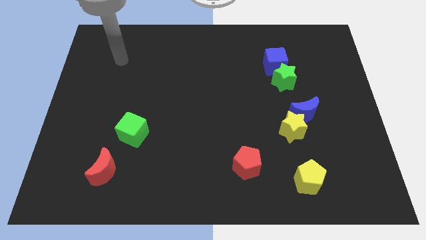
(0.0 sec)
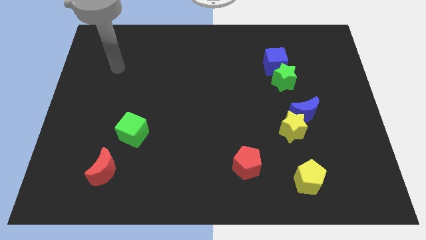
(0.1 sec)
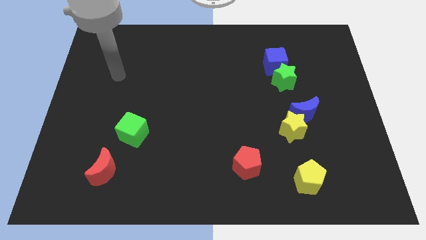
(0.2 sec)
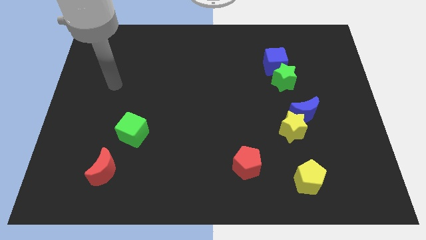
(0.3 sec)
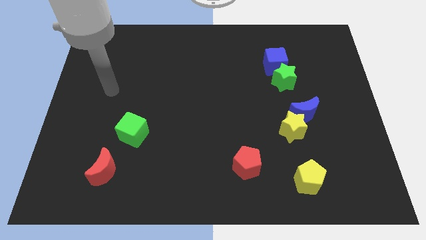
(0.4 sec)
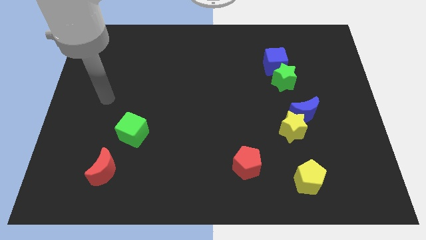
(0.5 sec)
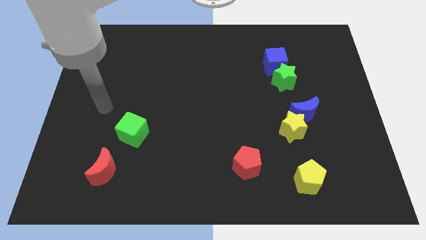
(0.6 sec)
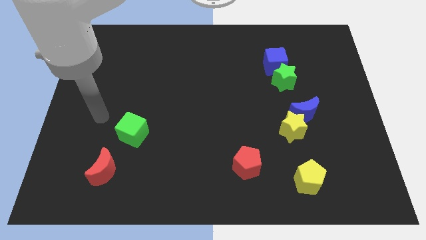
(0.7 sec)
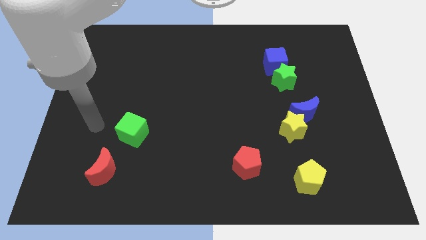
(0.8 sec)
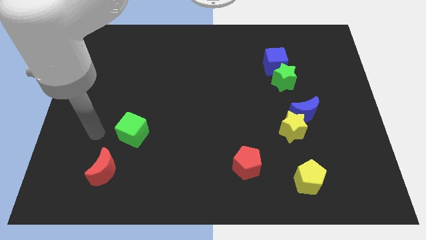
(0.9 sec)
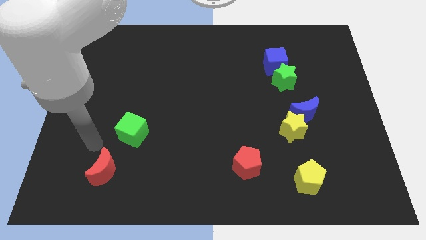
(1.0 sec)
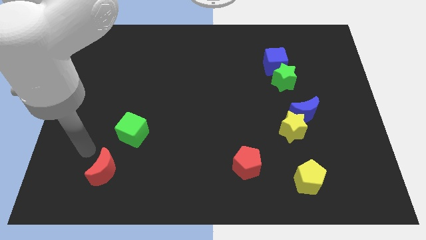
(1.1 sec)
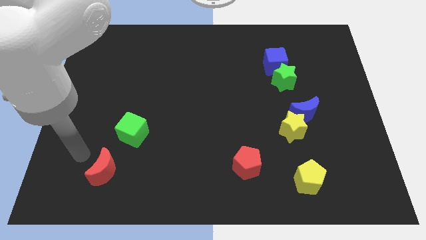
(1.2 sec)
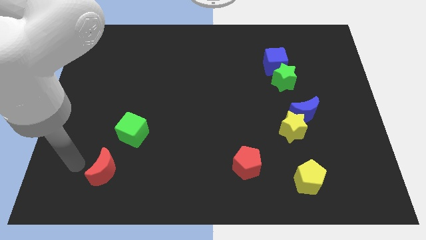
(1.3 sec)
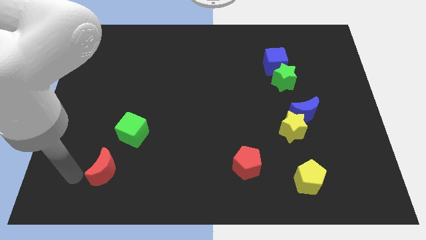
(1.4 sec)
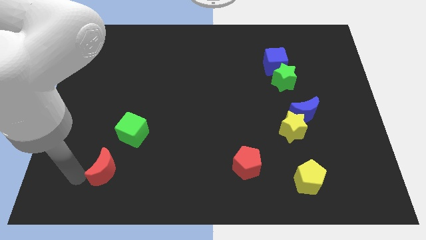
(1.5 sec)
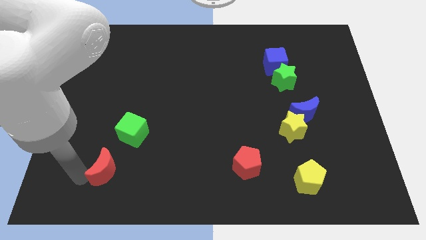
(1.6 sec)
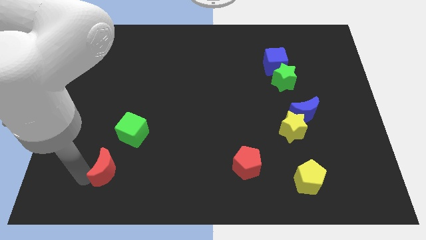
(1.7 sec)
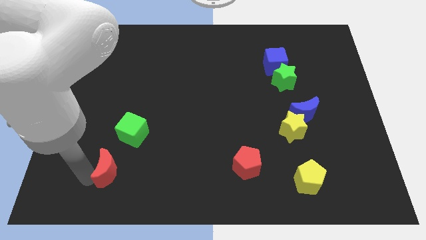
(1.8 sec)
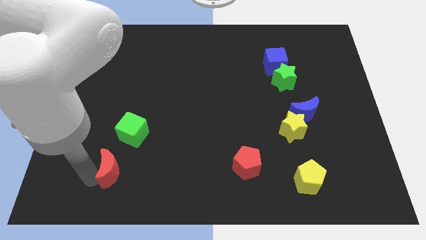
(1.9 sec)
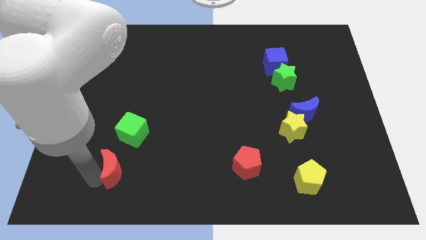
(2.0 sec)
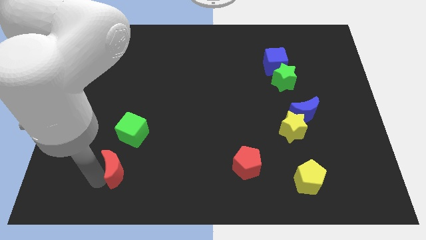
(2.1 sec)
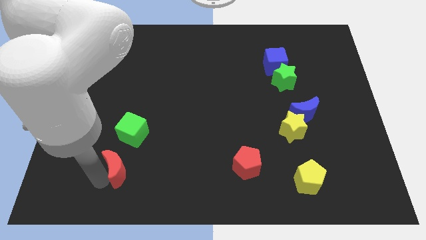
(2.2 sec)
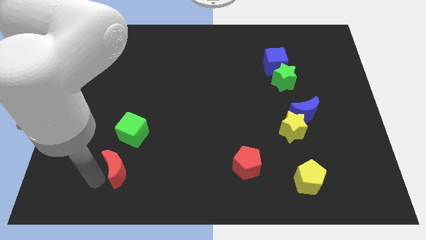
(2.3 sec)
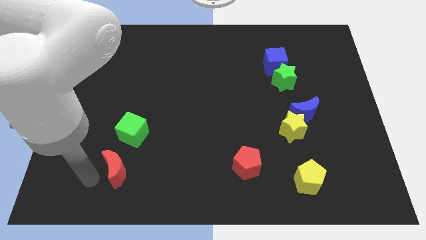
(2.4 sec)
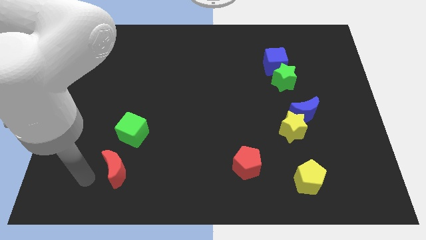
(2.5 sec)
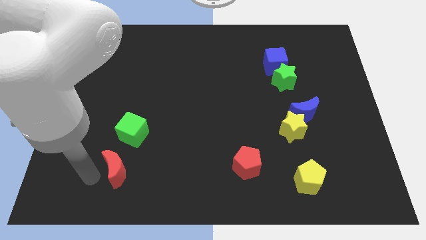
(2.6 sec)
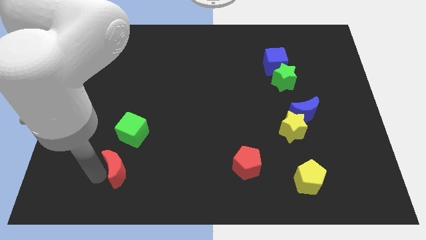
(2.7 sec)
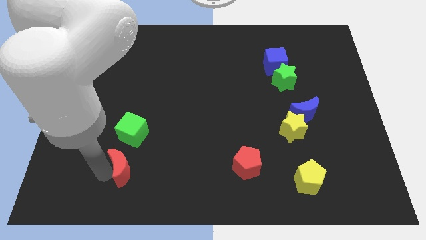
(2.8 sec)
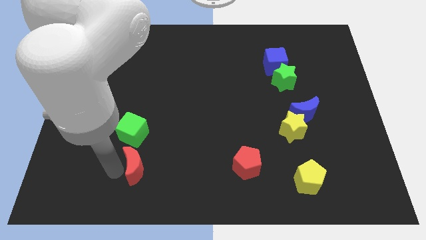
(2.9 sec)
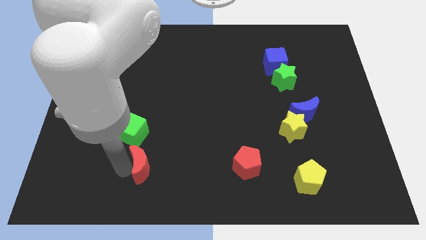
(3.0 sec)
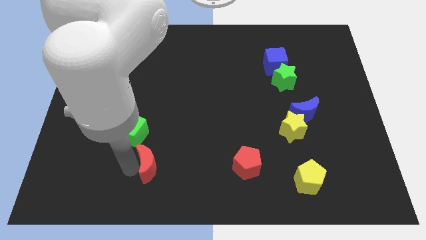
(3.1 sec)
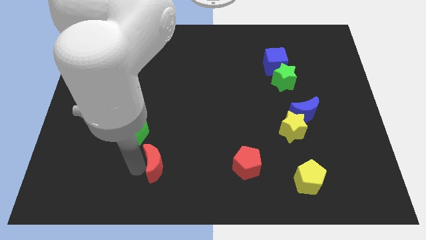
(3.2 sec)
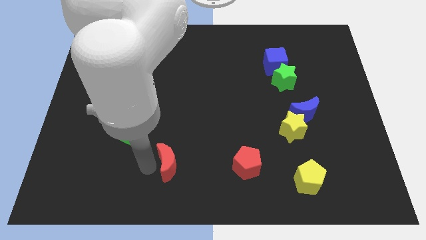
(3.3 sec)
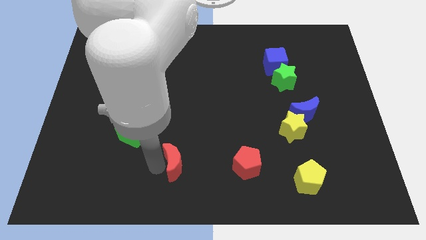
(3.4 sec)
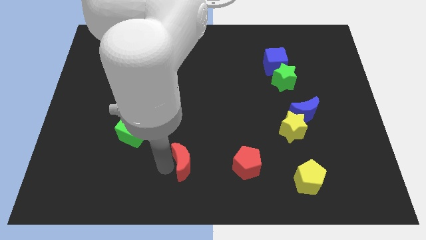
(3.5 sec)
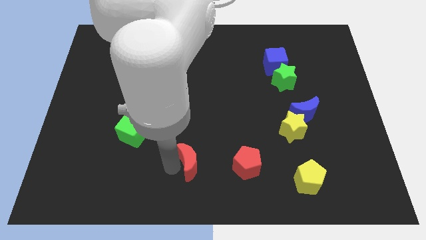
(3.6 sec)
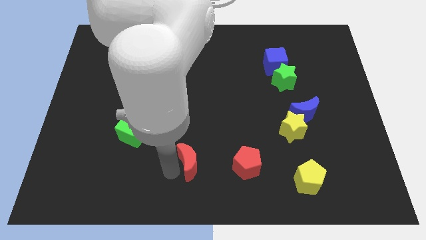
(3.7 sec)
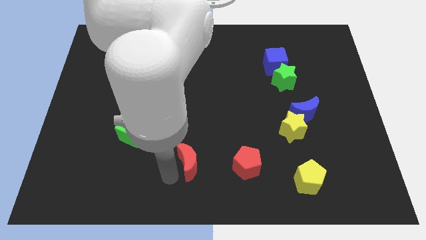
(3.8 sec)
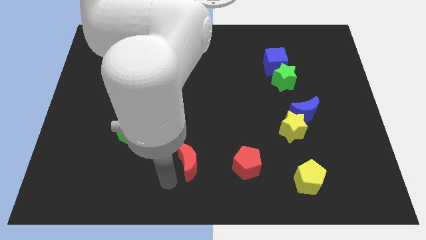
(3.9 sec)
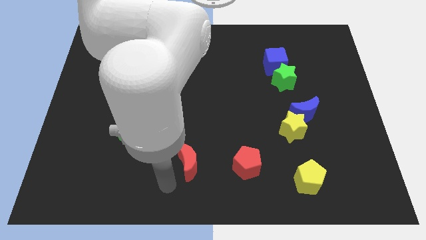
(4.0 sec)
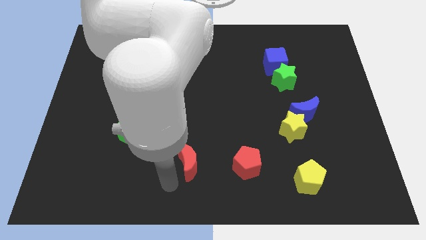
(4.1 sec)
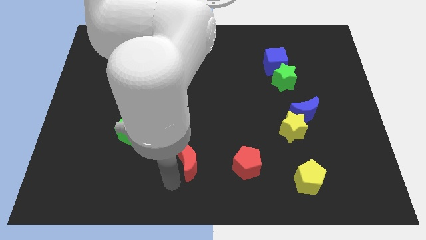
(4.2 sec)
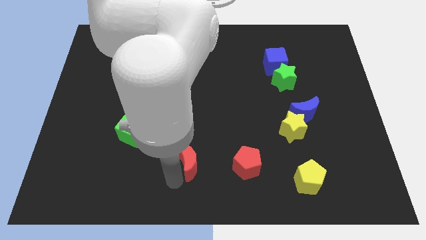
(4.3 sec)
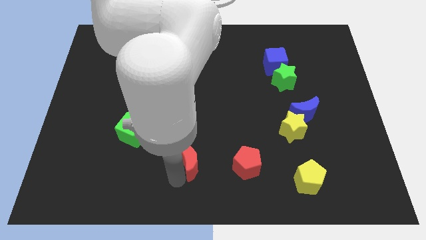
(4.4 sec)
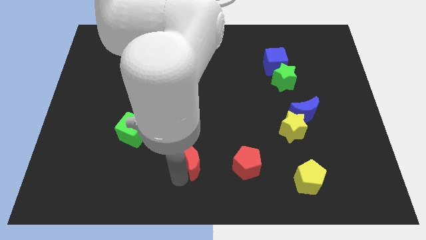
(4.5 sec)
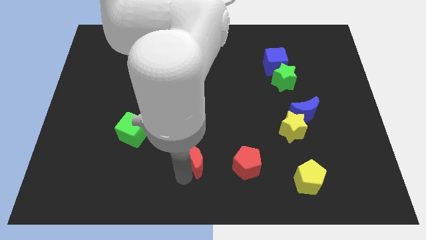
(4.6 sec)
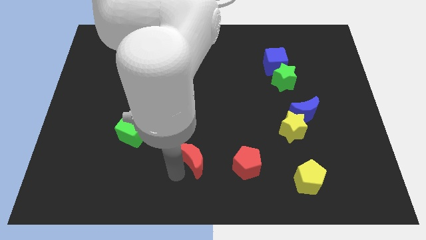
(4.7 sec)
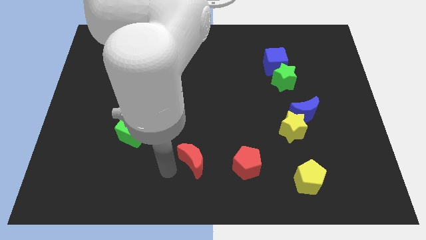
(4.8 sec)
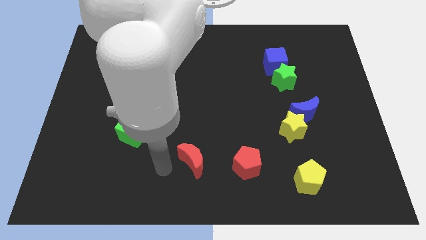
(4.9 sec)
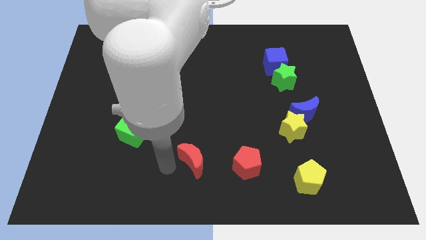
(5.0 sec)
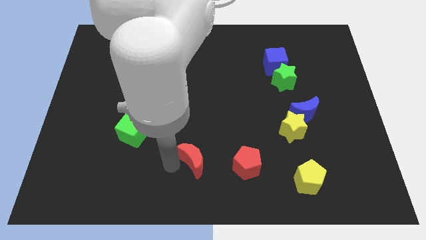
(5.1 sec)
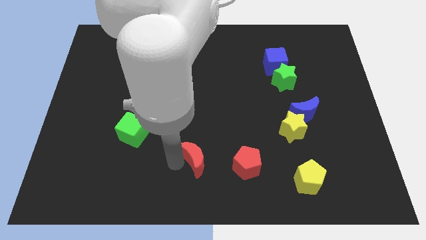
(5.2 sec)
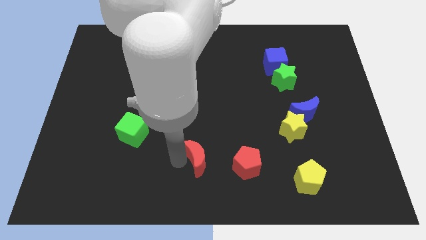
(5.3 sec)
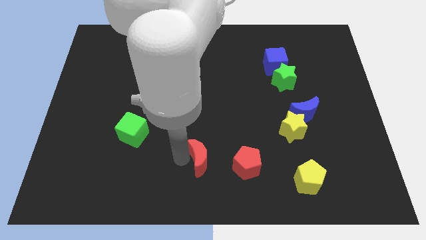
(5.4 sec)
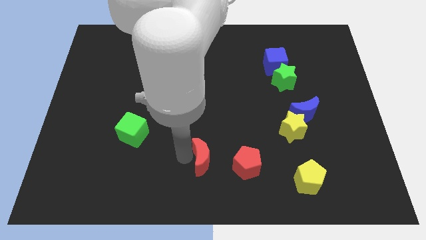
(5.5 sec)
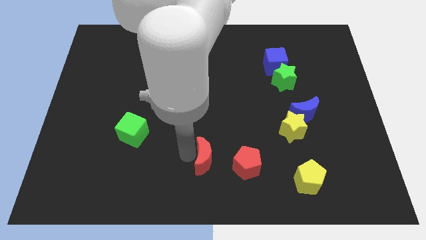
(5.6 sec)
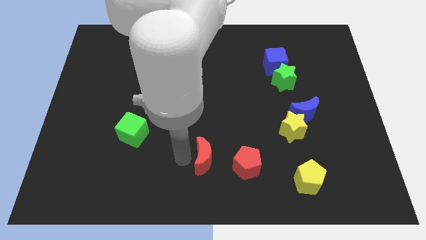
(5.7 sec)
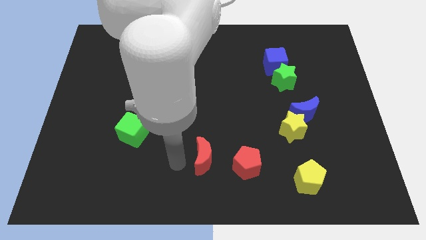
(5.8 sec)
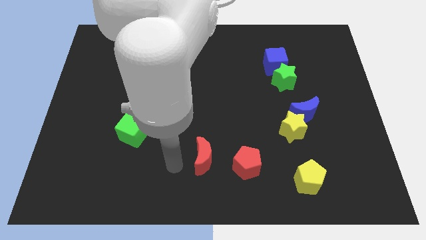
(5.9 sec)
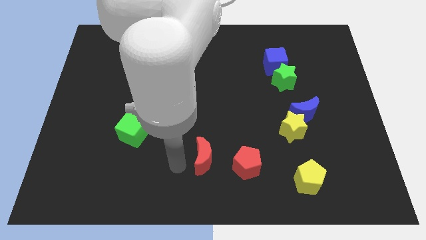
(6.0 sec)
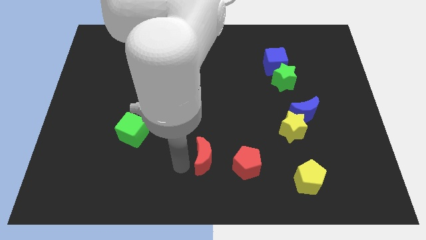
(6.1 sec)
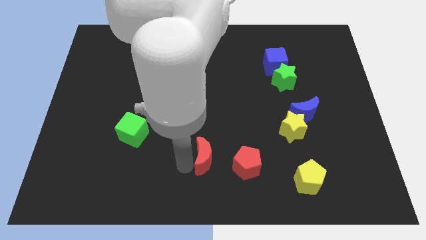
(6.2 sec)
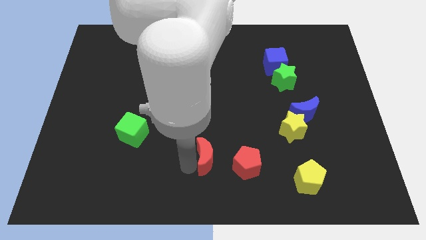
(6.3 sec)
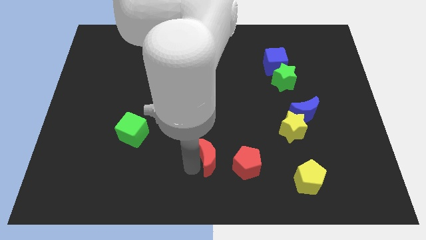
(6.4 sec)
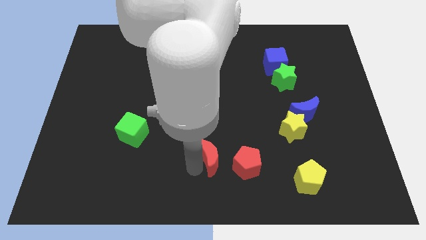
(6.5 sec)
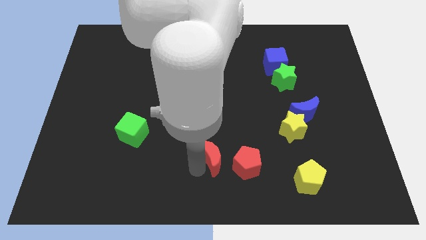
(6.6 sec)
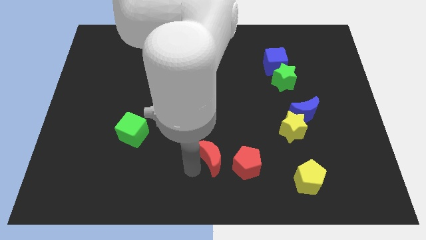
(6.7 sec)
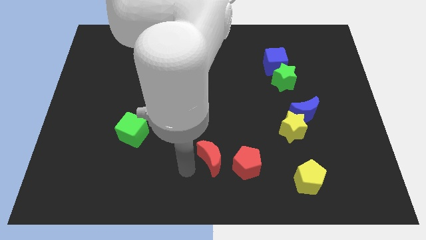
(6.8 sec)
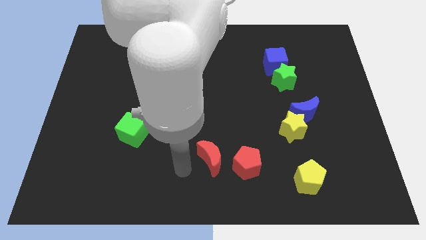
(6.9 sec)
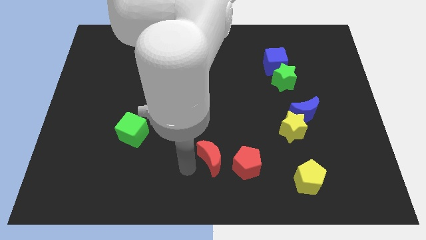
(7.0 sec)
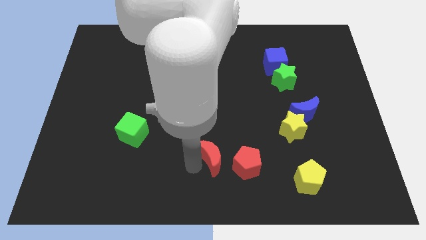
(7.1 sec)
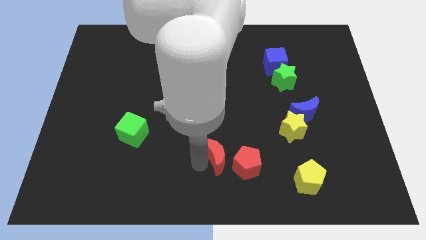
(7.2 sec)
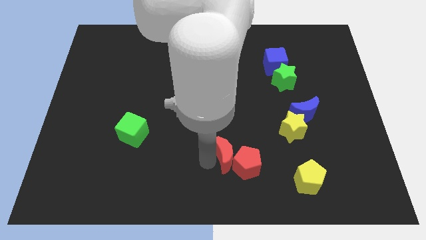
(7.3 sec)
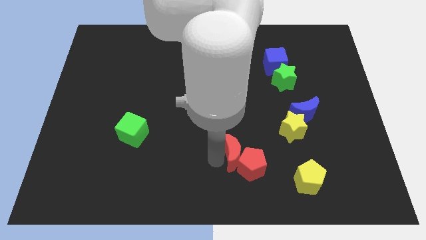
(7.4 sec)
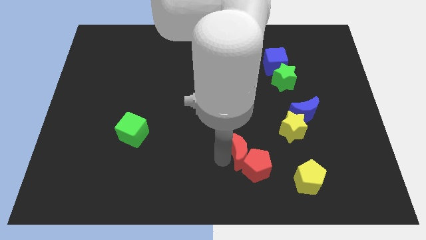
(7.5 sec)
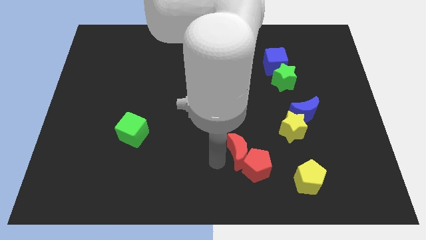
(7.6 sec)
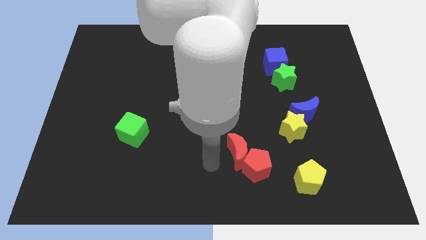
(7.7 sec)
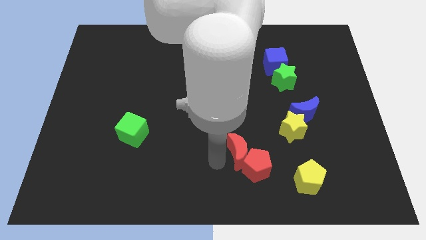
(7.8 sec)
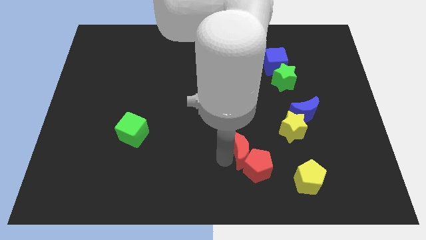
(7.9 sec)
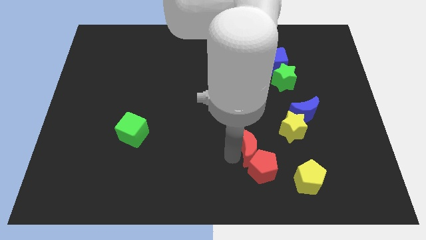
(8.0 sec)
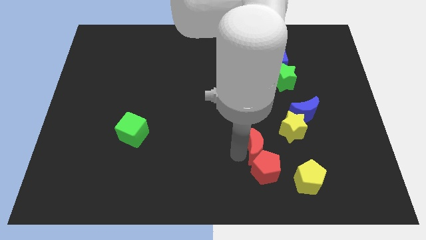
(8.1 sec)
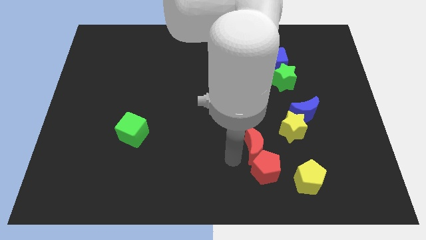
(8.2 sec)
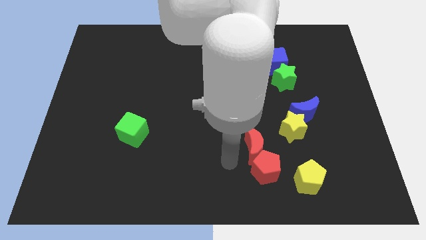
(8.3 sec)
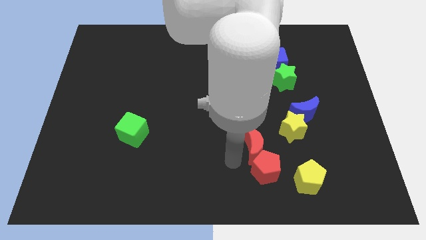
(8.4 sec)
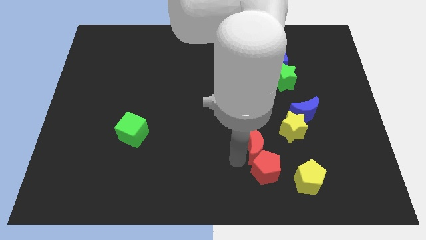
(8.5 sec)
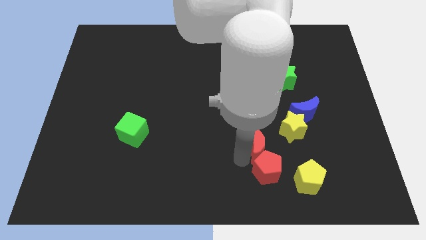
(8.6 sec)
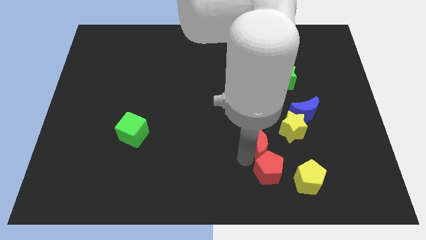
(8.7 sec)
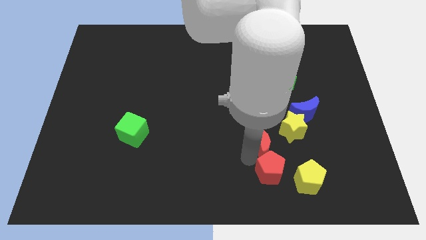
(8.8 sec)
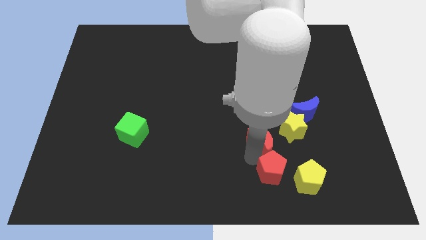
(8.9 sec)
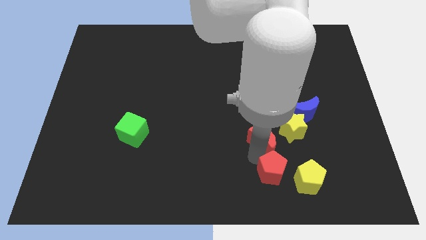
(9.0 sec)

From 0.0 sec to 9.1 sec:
move the red moon diagonally down and to the left of the blue moon
